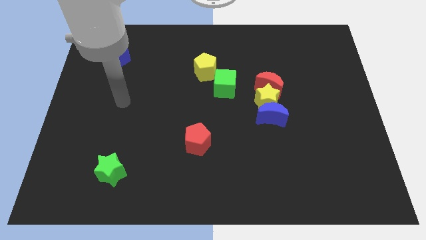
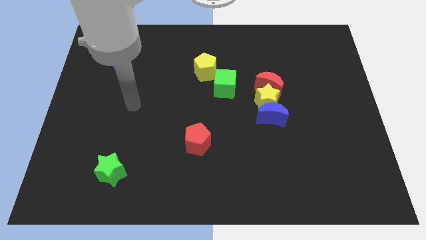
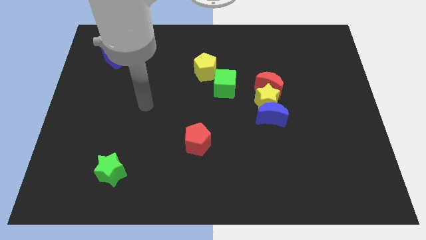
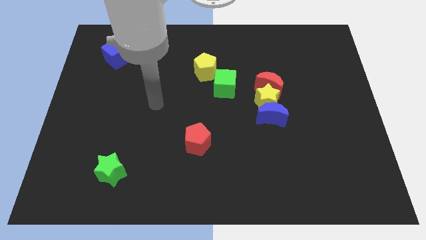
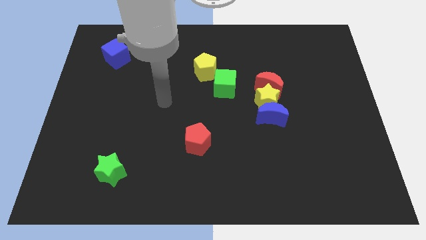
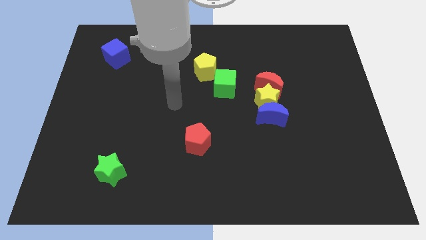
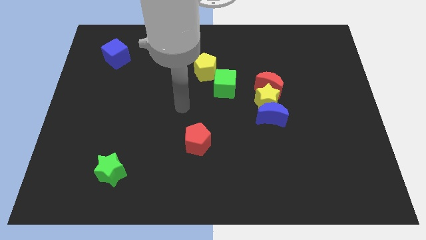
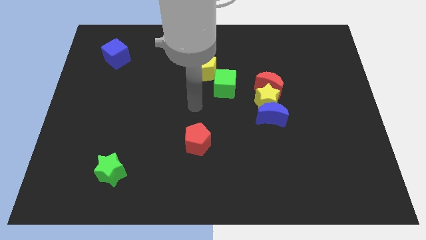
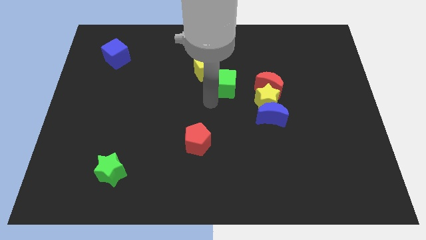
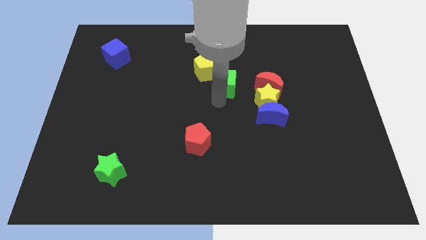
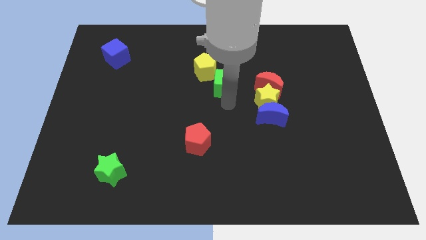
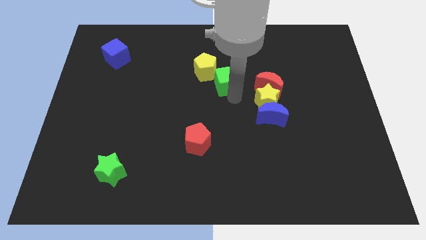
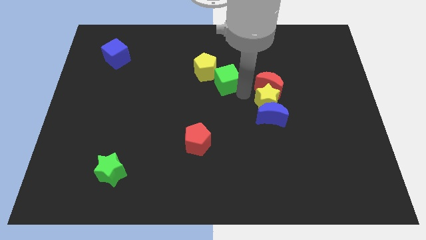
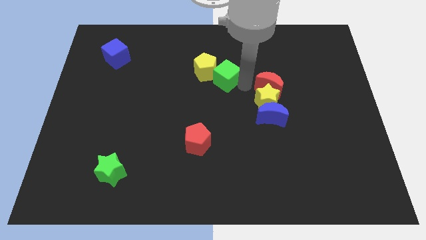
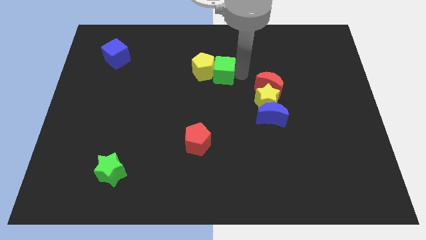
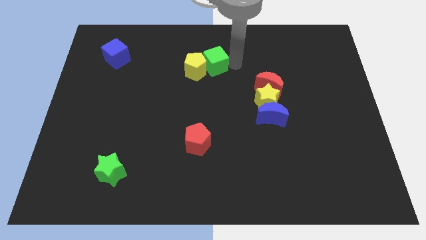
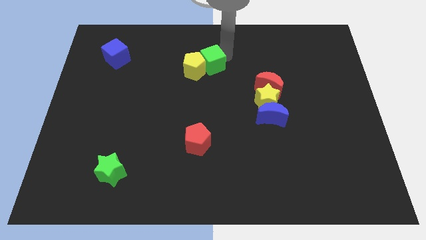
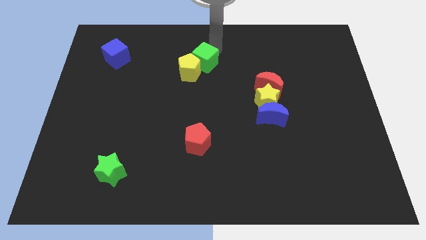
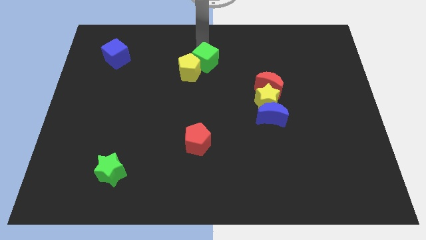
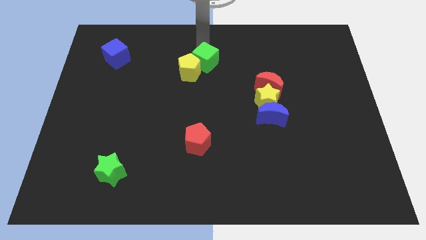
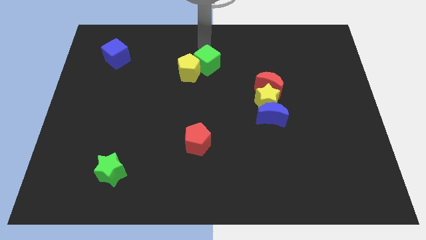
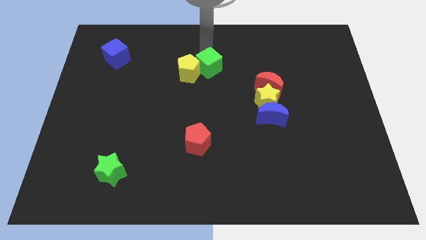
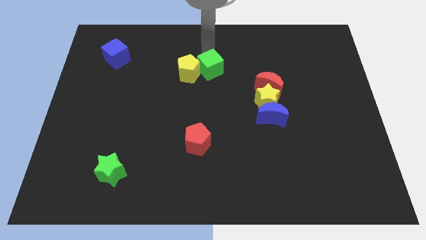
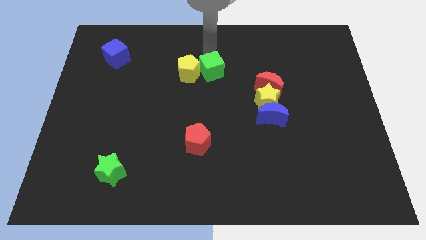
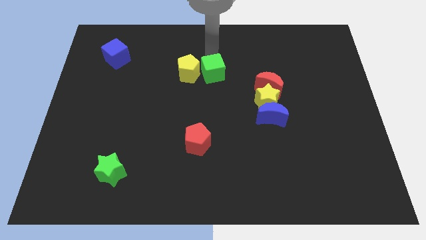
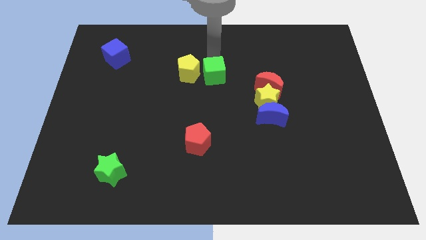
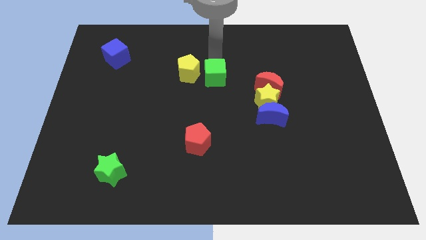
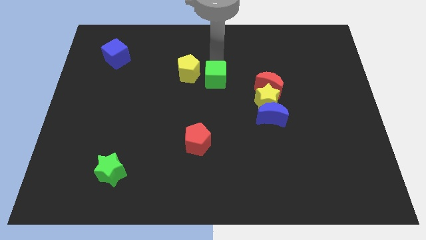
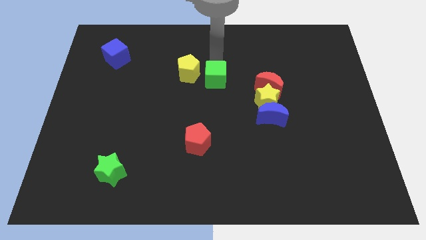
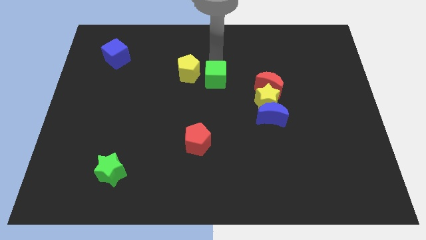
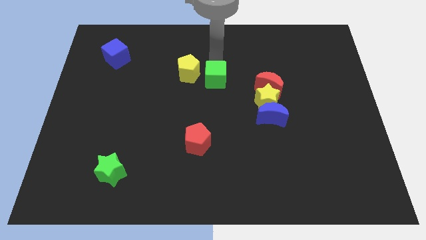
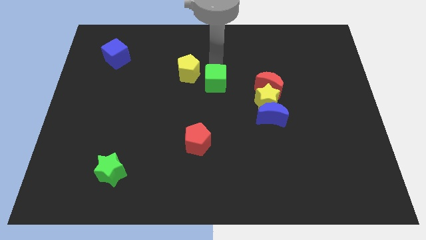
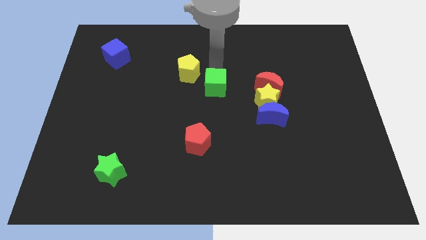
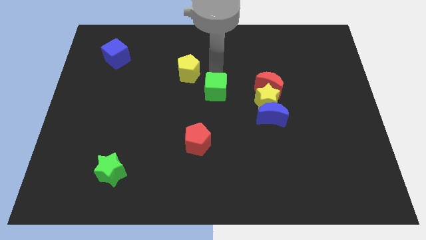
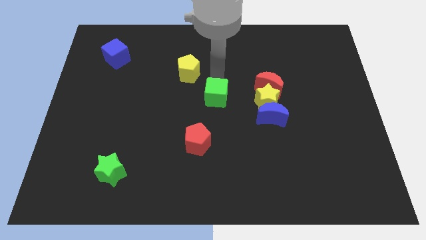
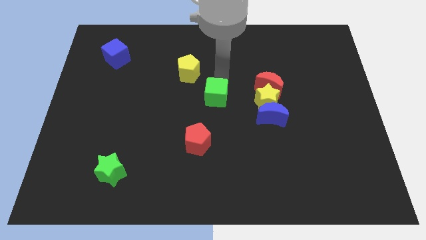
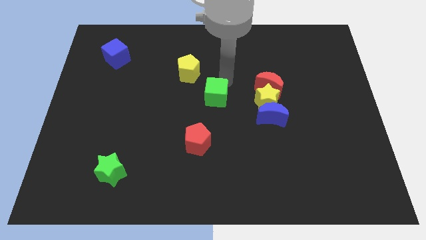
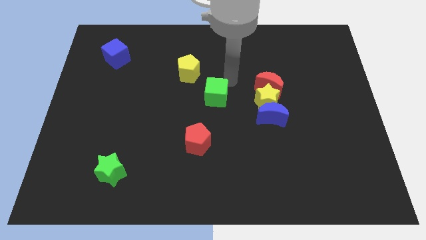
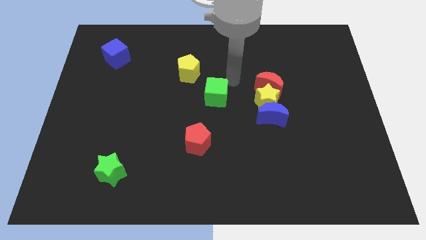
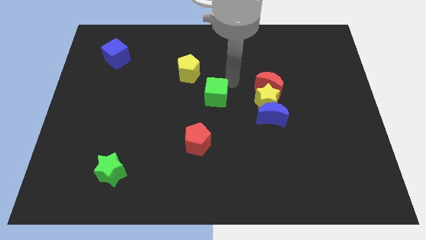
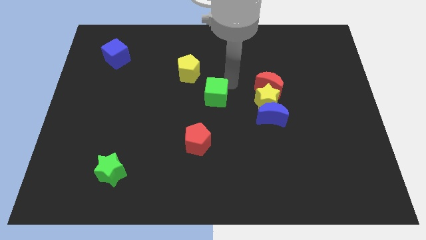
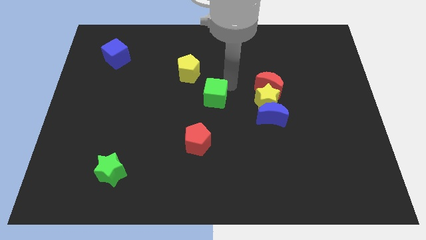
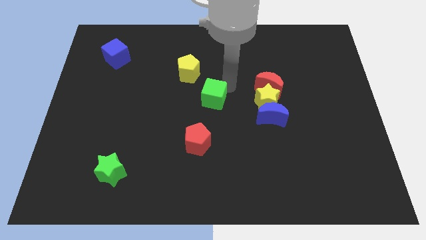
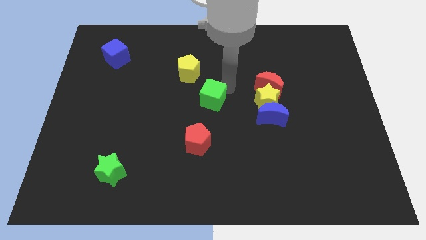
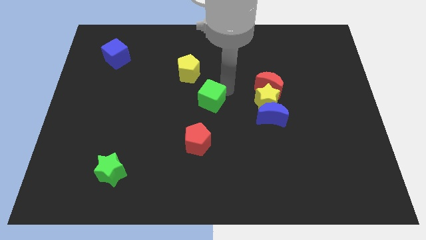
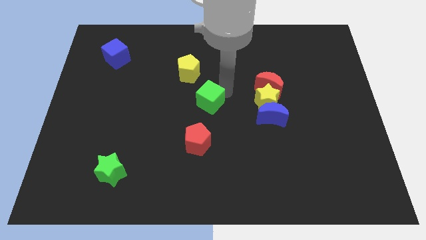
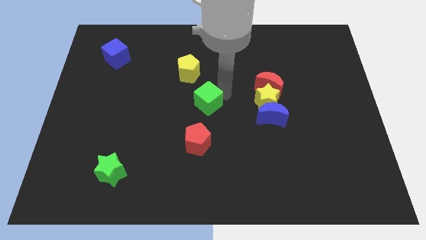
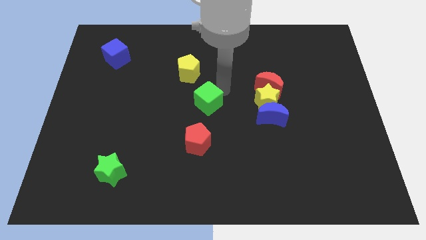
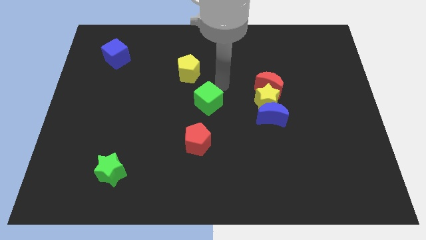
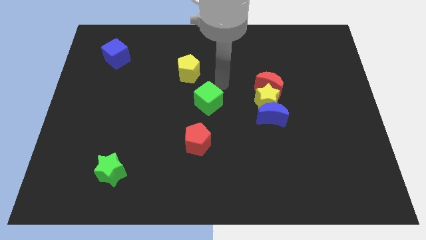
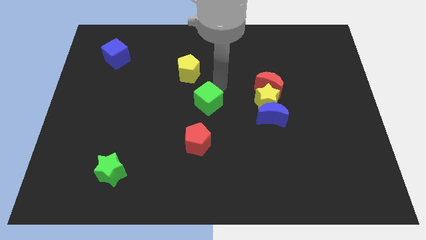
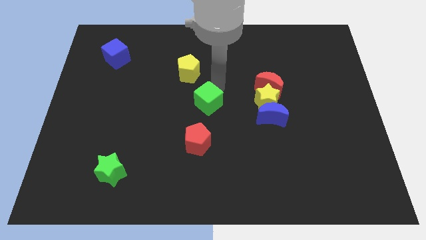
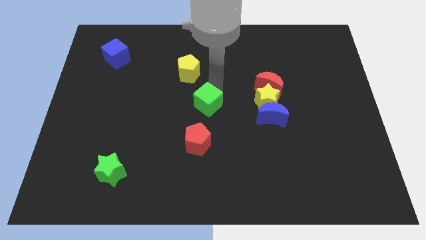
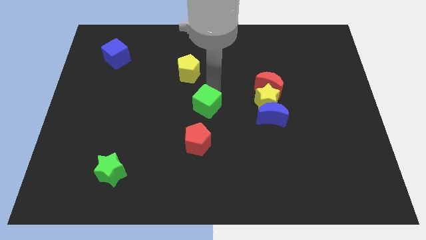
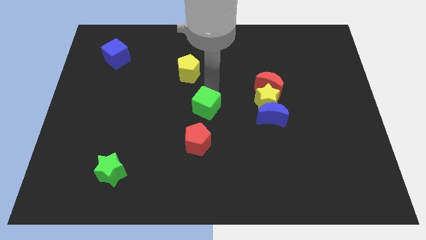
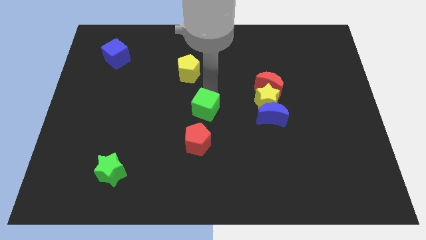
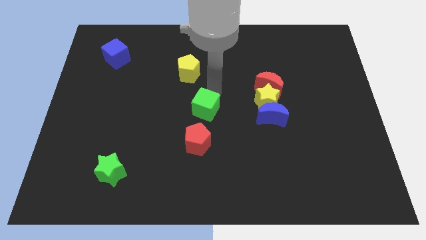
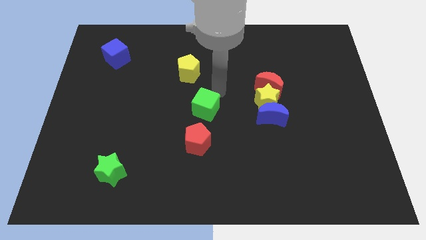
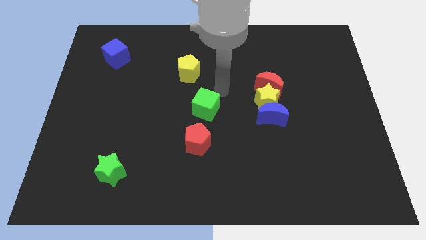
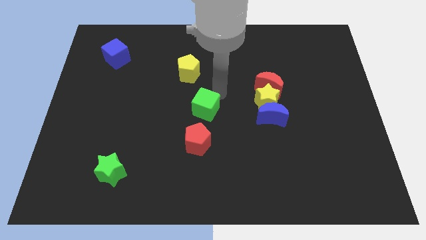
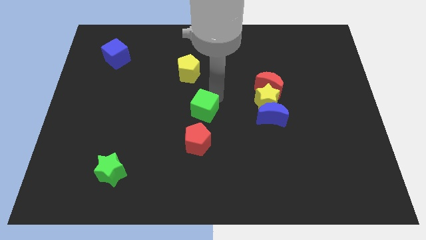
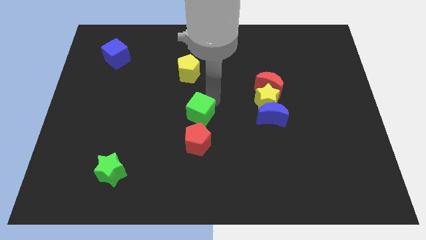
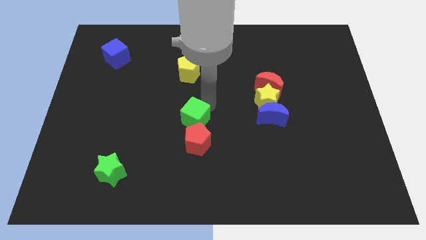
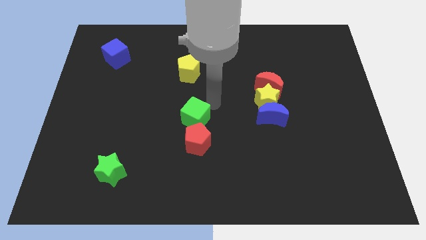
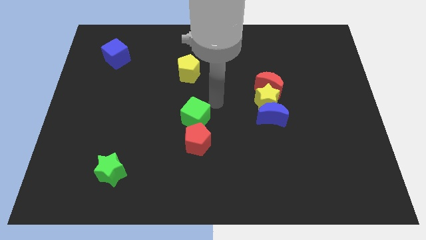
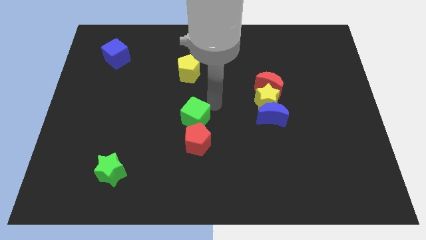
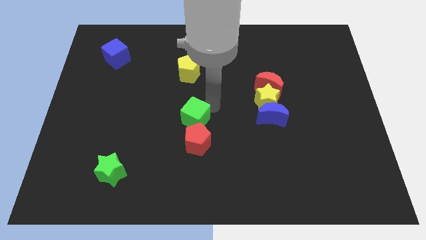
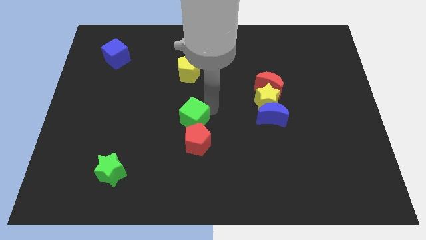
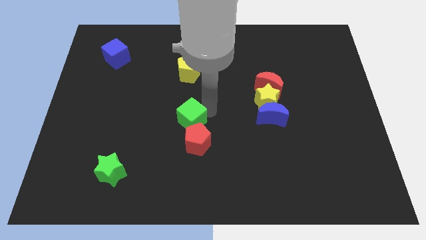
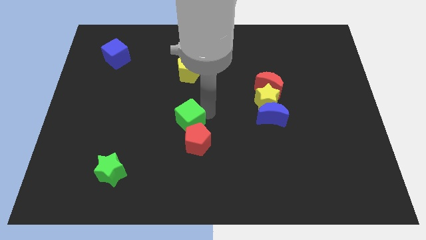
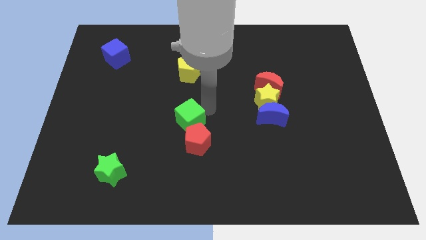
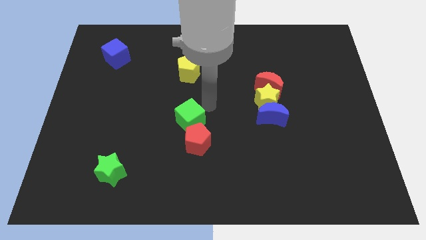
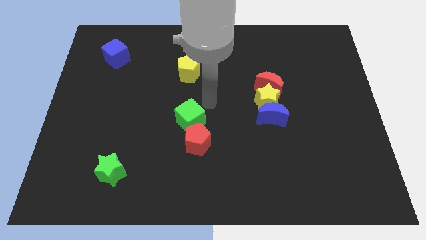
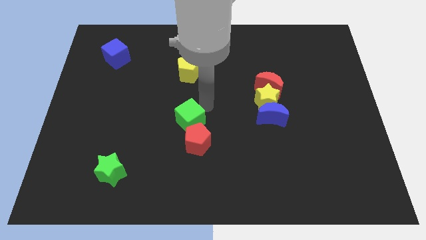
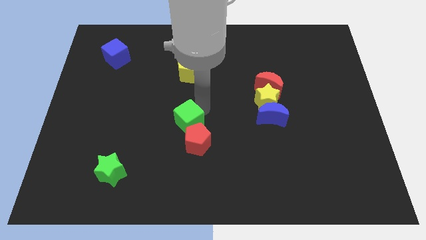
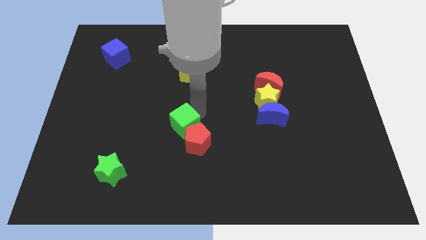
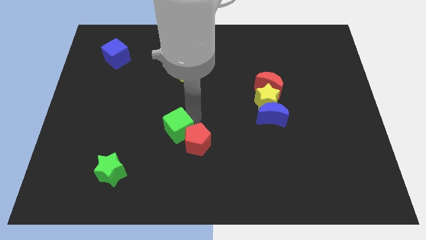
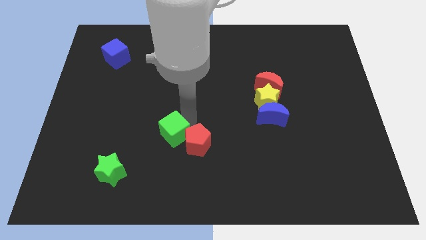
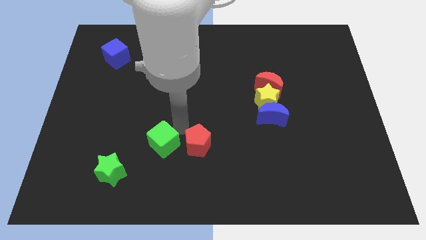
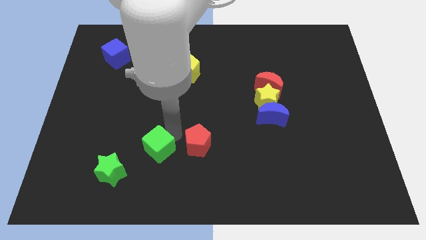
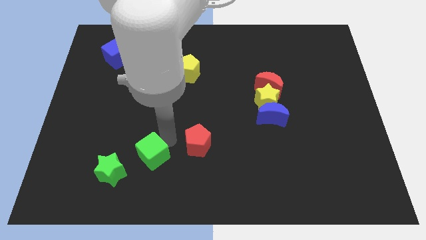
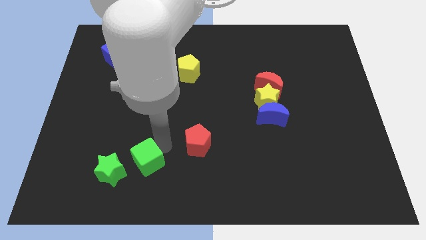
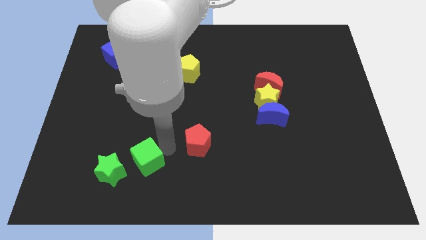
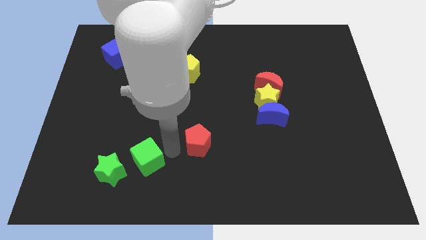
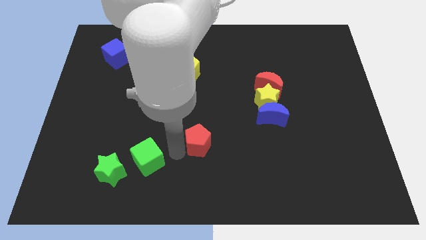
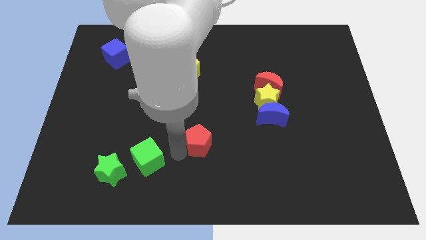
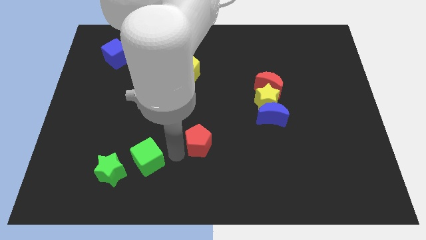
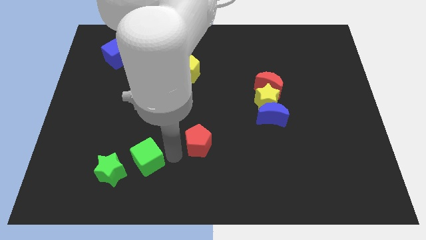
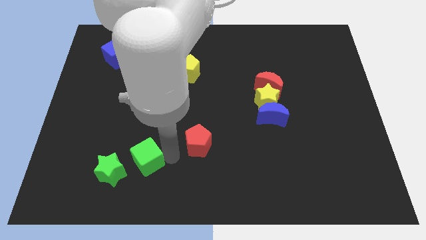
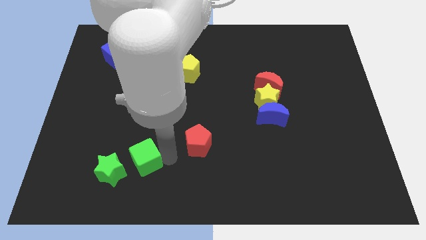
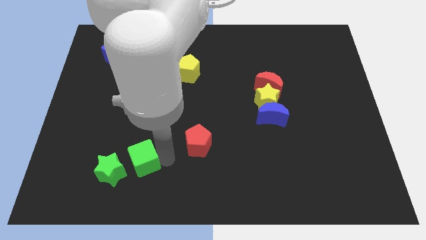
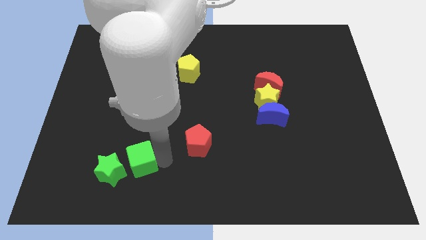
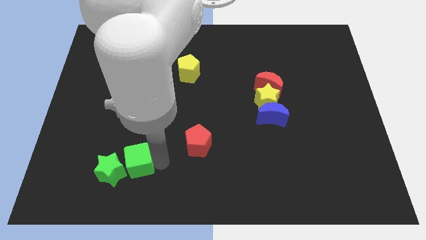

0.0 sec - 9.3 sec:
slide the green cube next to the green star
